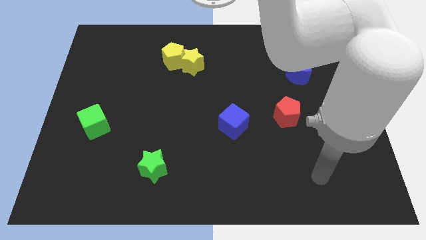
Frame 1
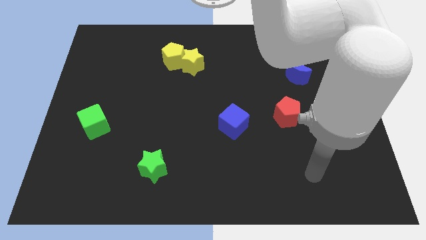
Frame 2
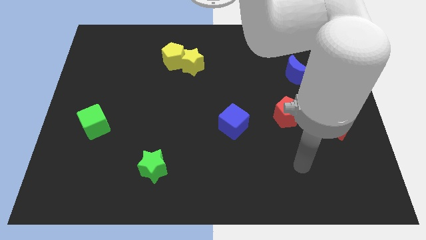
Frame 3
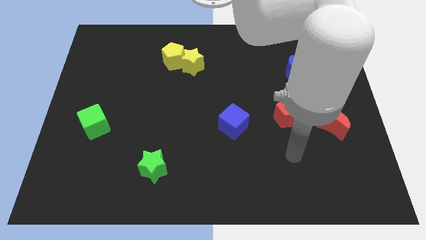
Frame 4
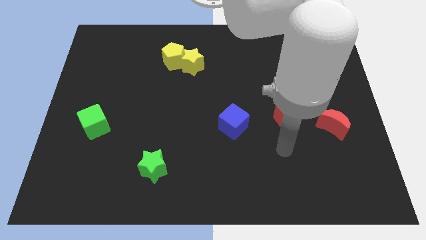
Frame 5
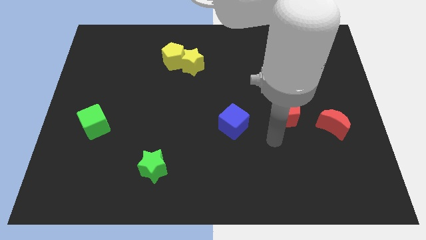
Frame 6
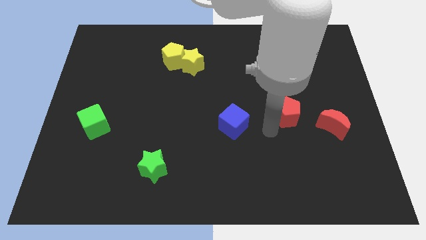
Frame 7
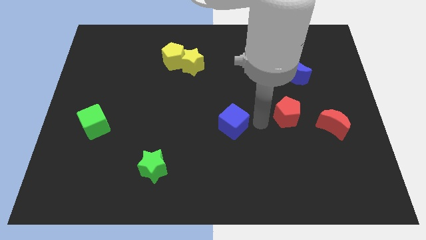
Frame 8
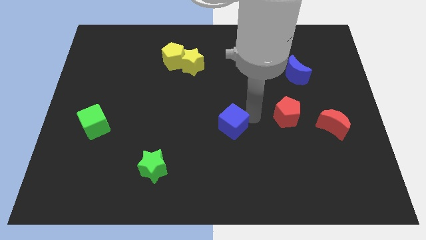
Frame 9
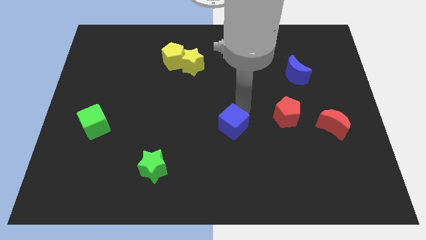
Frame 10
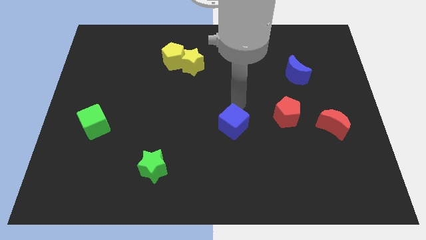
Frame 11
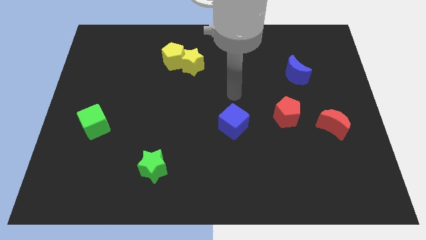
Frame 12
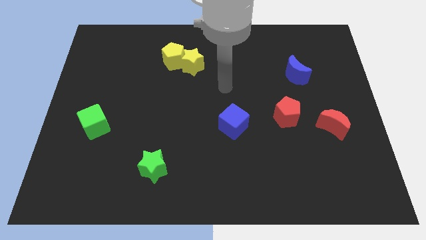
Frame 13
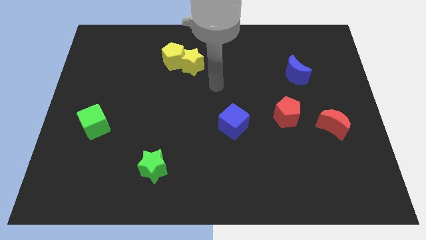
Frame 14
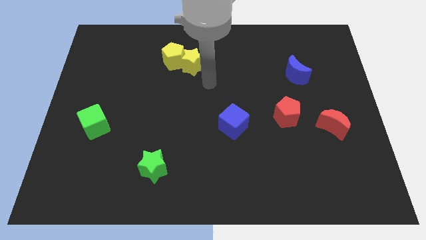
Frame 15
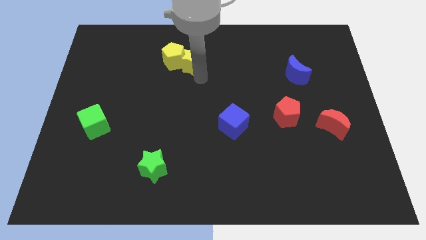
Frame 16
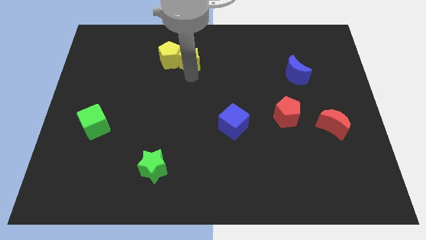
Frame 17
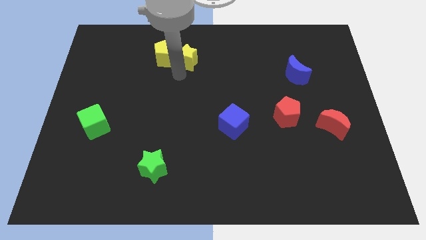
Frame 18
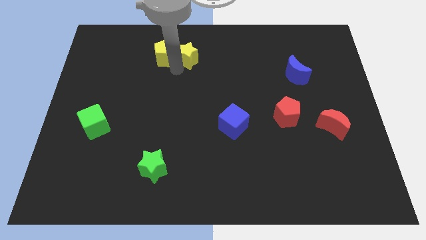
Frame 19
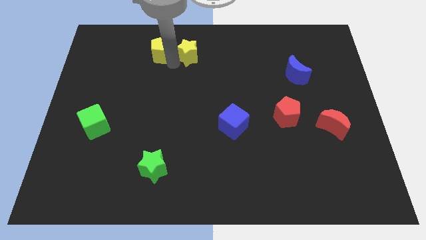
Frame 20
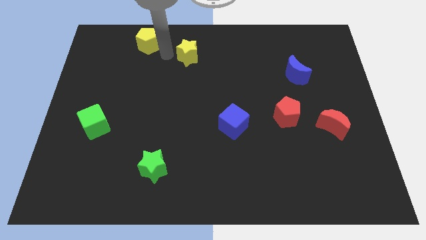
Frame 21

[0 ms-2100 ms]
pull the yellow star apart from the yellow pentagon

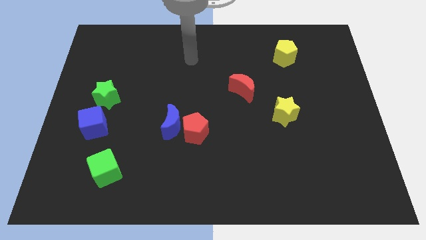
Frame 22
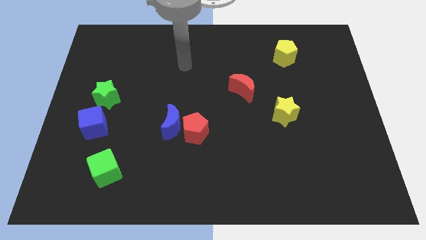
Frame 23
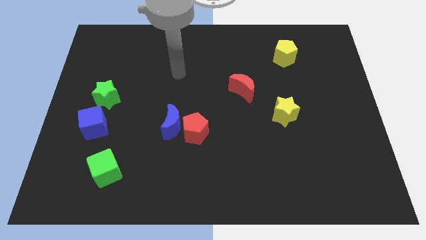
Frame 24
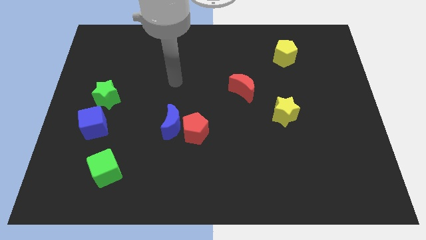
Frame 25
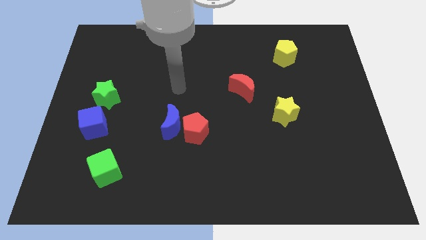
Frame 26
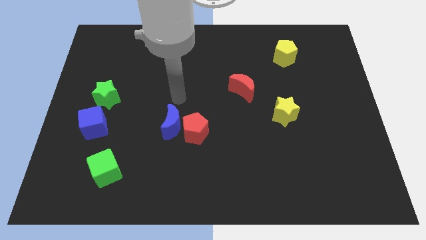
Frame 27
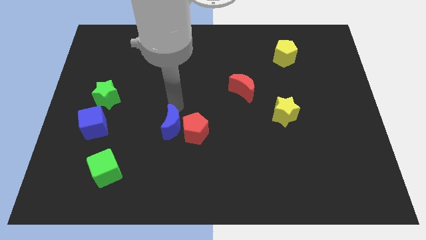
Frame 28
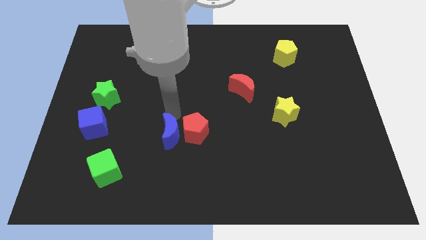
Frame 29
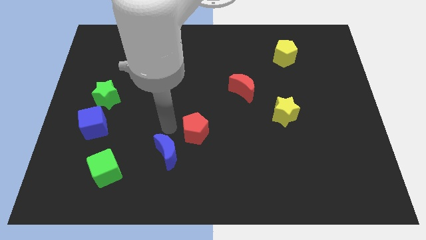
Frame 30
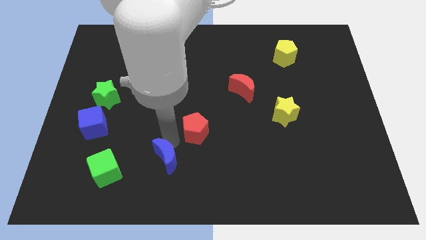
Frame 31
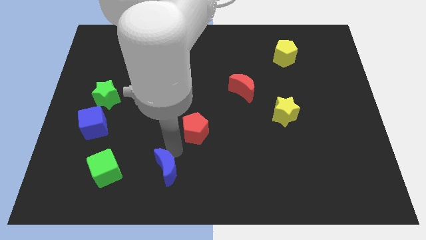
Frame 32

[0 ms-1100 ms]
separate the red pentagon from the blue moon

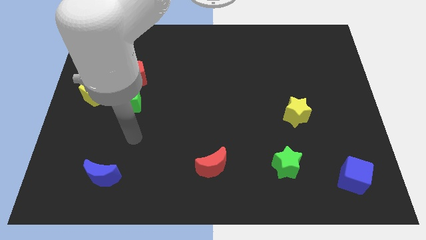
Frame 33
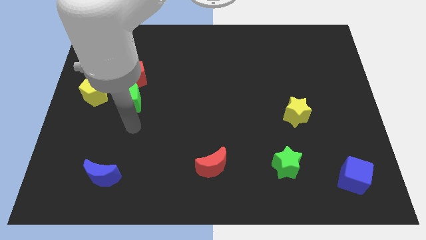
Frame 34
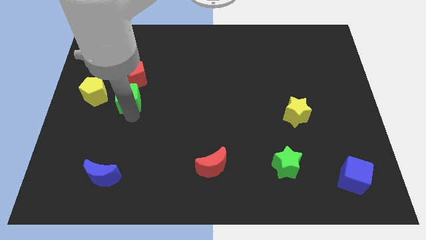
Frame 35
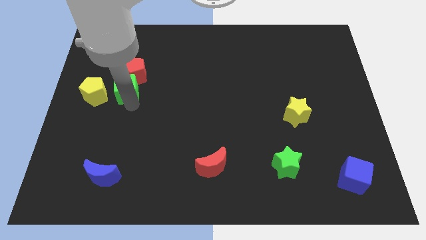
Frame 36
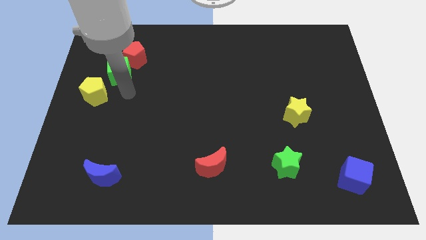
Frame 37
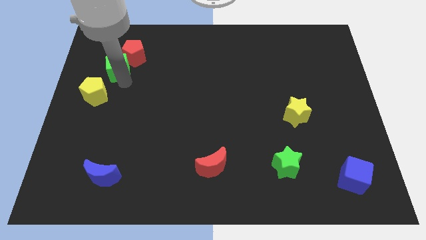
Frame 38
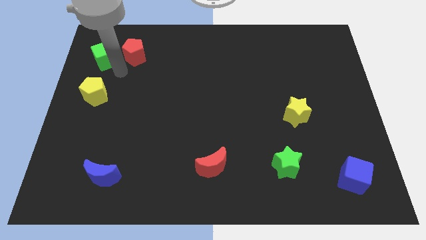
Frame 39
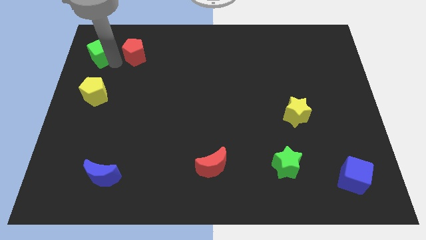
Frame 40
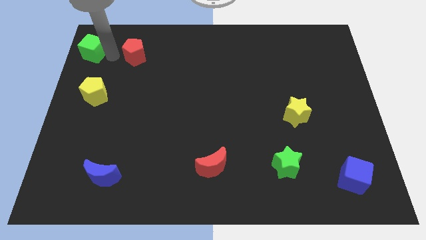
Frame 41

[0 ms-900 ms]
move the red pentagon away from the green cube

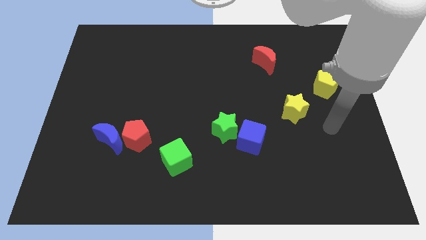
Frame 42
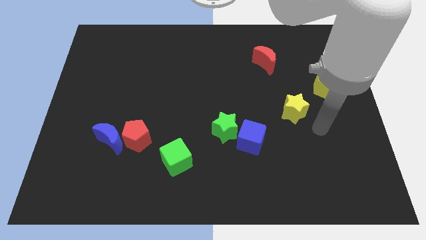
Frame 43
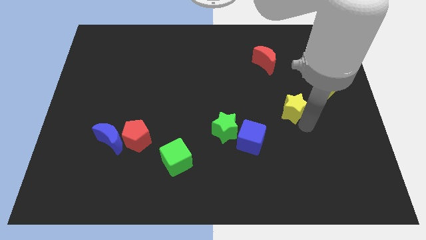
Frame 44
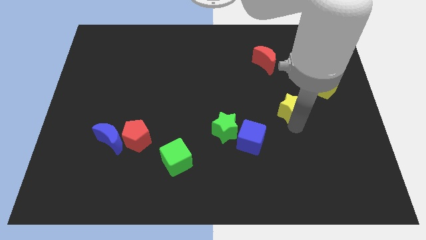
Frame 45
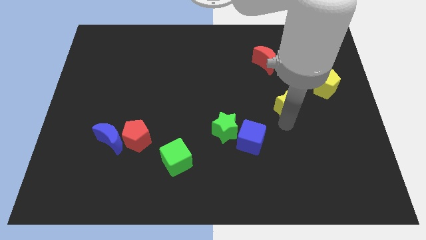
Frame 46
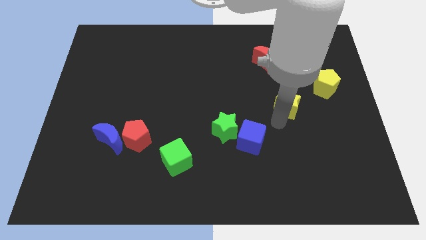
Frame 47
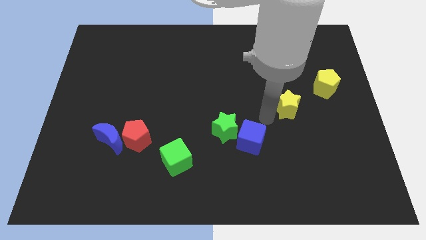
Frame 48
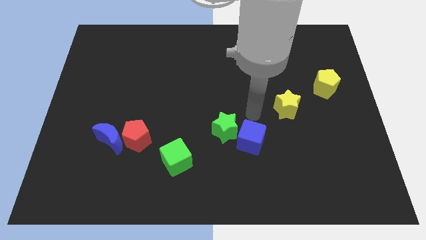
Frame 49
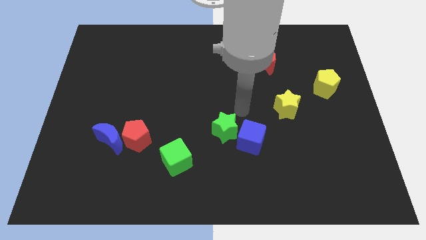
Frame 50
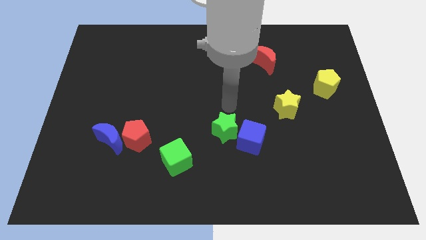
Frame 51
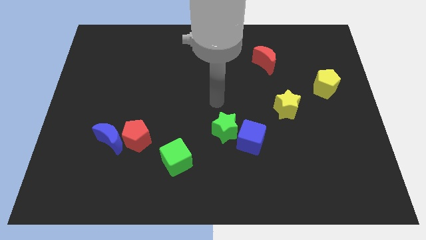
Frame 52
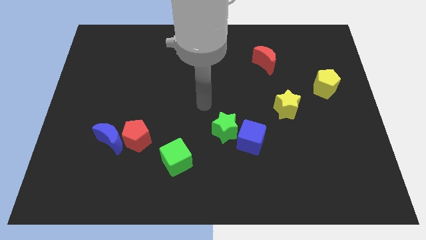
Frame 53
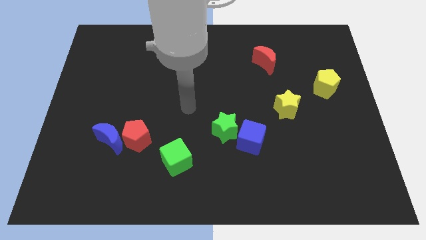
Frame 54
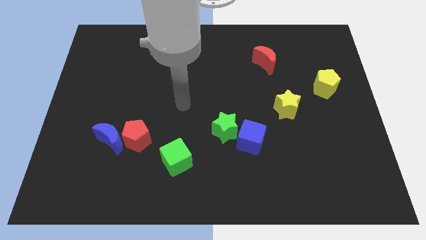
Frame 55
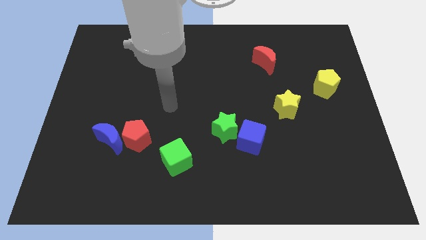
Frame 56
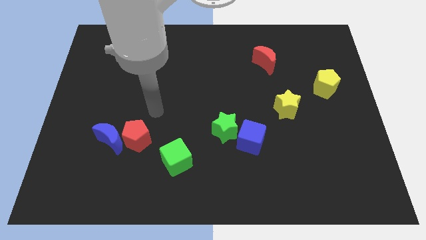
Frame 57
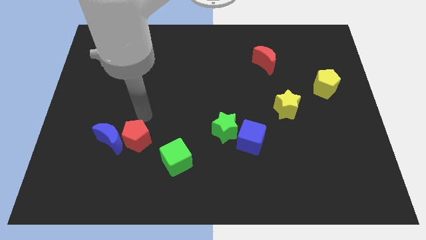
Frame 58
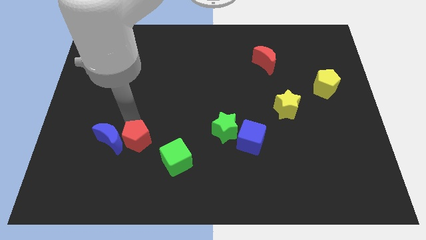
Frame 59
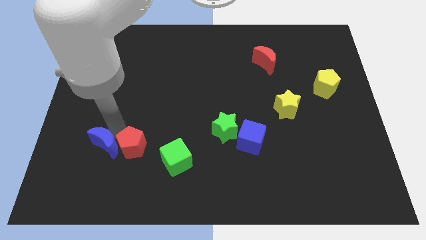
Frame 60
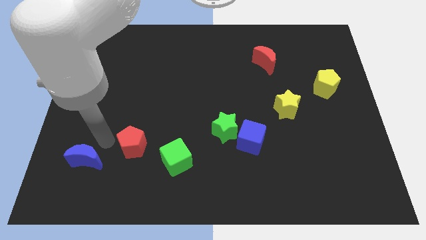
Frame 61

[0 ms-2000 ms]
move the red pentagon away from the blue moon

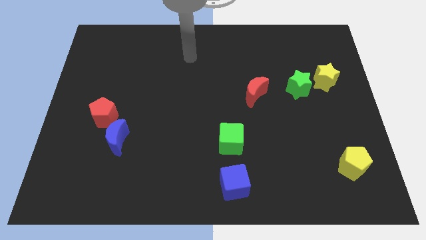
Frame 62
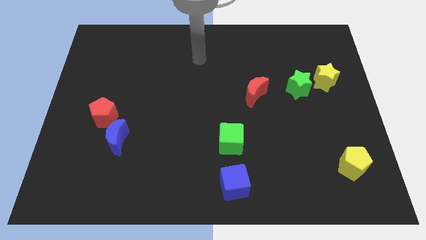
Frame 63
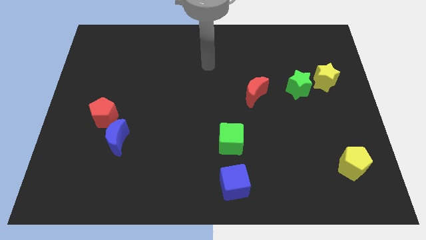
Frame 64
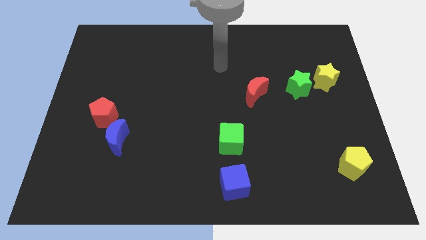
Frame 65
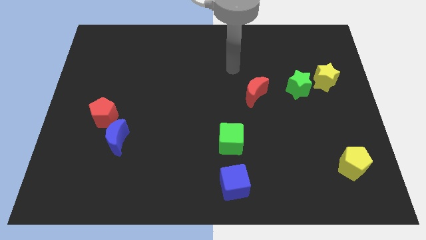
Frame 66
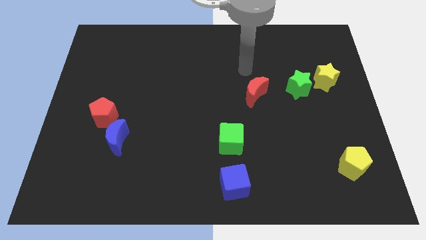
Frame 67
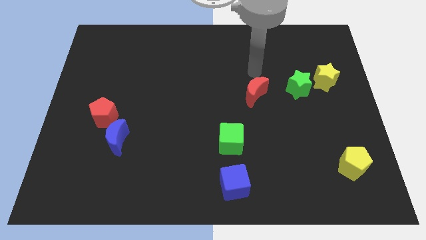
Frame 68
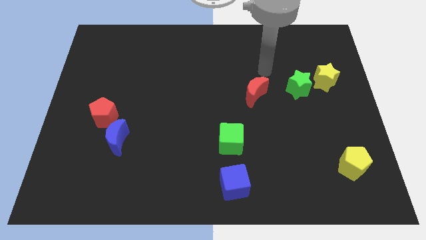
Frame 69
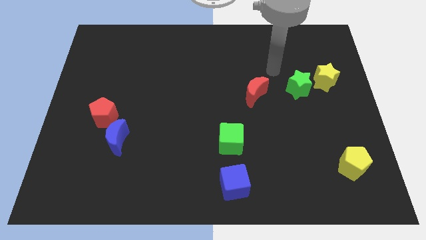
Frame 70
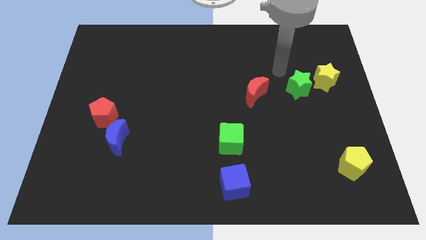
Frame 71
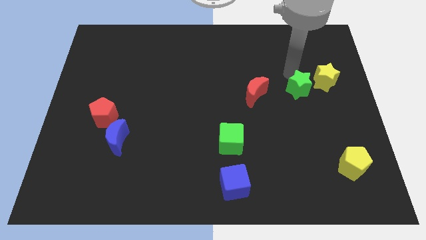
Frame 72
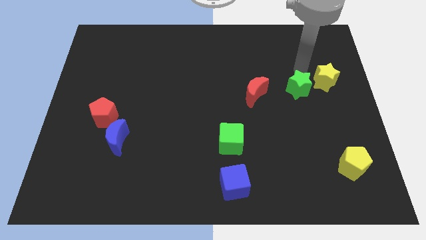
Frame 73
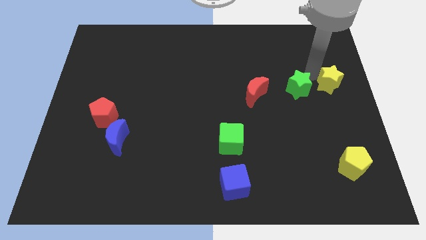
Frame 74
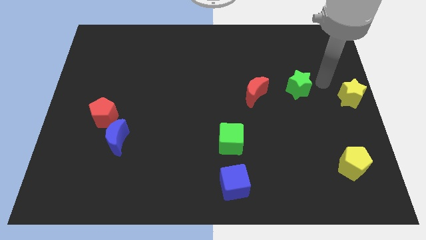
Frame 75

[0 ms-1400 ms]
move the green star away from the yellow star

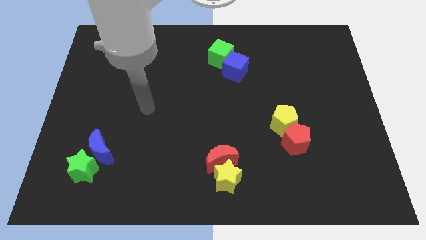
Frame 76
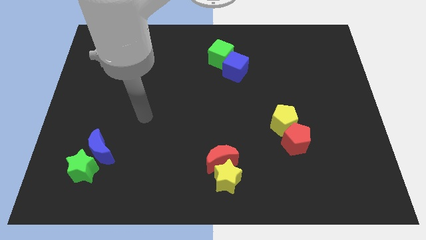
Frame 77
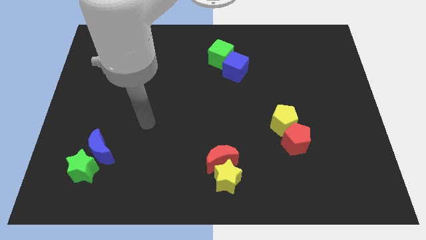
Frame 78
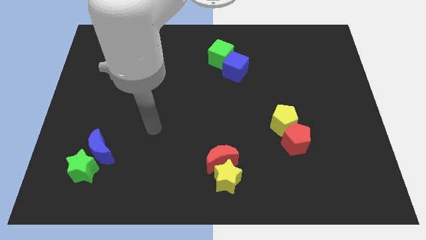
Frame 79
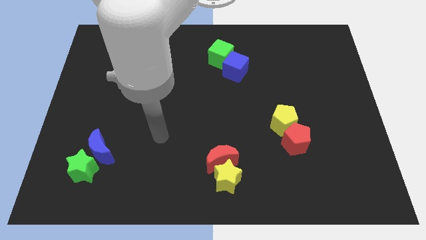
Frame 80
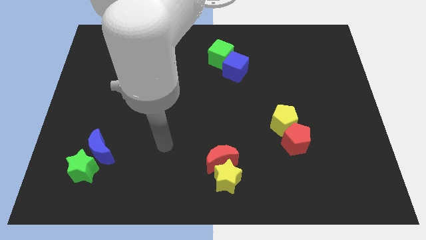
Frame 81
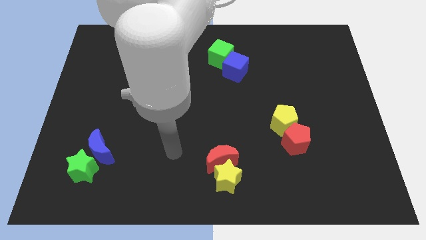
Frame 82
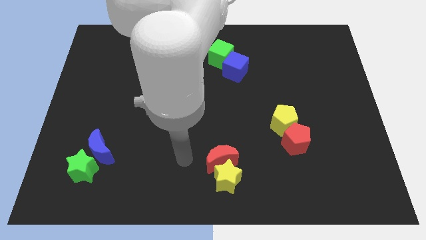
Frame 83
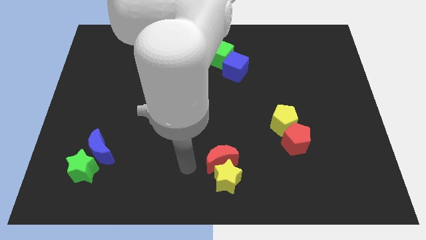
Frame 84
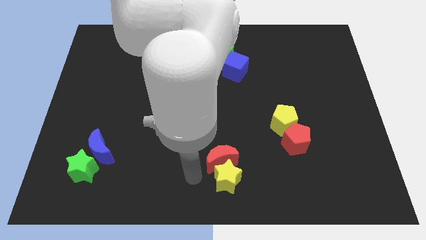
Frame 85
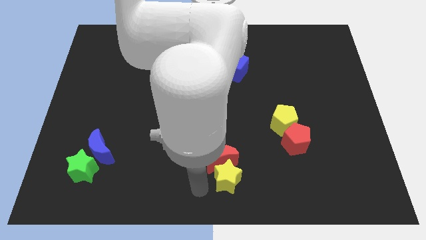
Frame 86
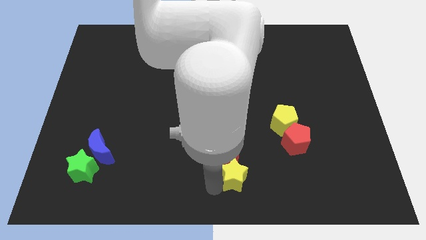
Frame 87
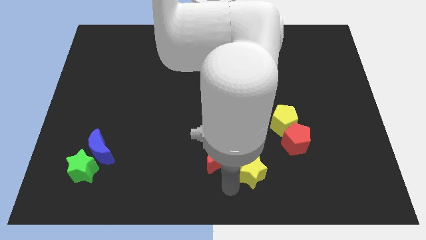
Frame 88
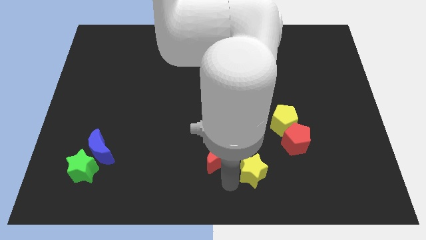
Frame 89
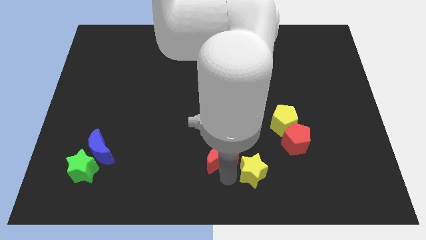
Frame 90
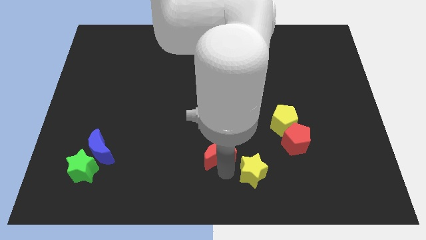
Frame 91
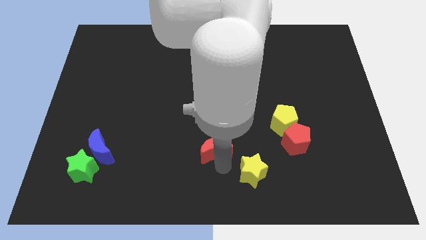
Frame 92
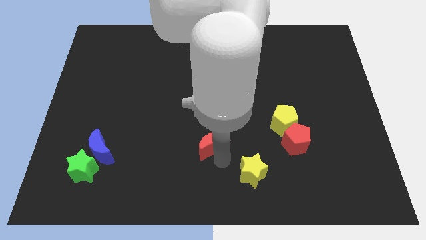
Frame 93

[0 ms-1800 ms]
move the red moon away from the yellow star
